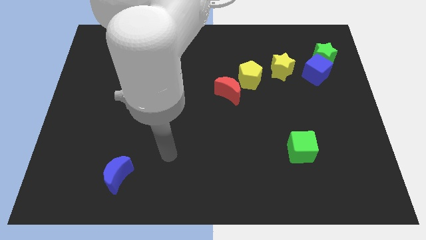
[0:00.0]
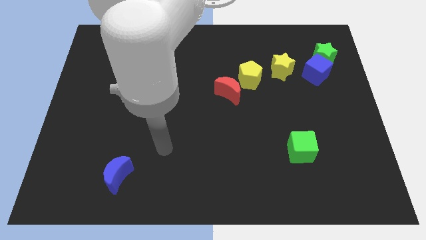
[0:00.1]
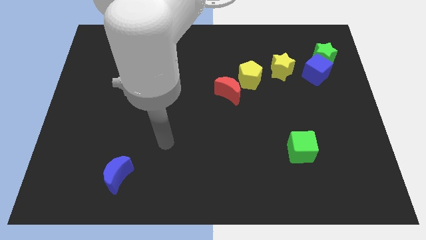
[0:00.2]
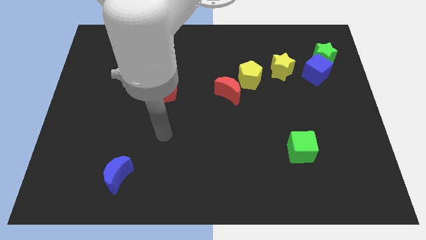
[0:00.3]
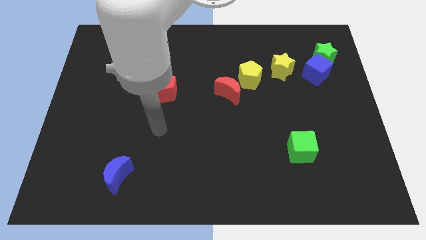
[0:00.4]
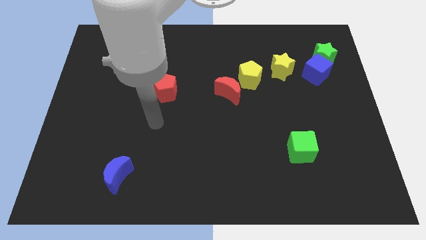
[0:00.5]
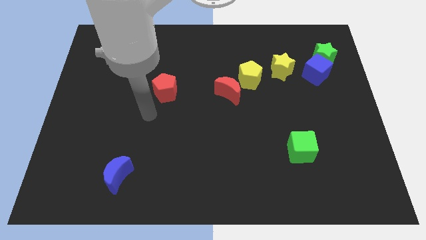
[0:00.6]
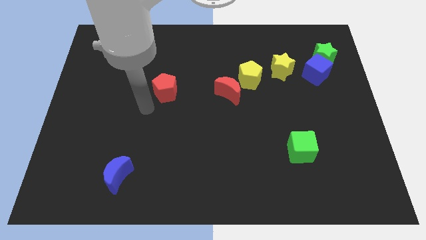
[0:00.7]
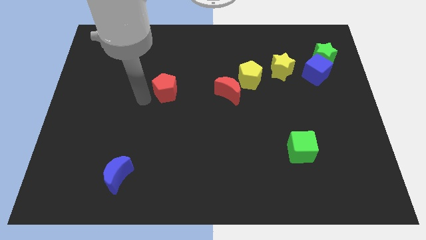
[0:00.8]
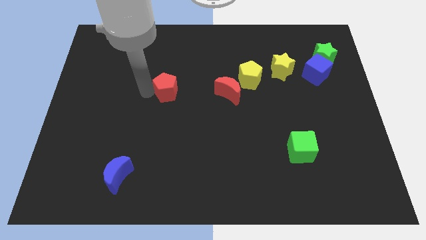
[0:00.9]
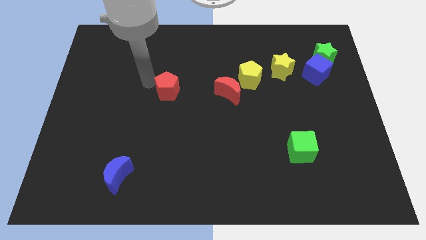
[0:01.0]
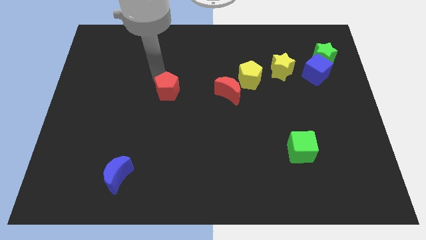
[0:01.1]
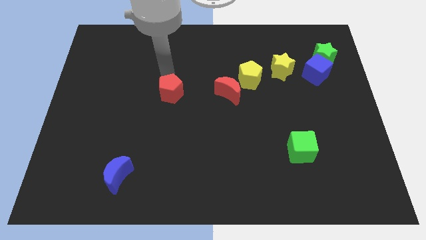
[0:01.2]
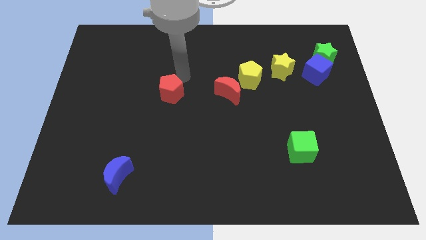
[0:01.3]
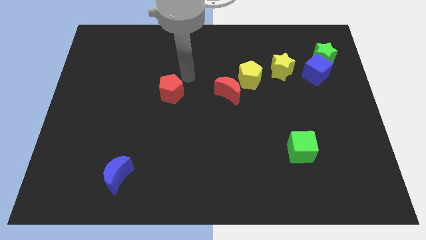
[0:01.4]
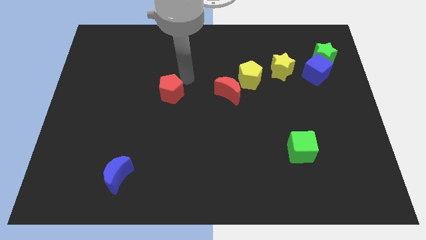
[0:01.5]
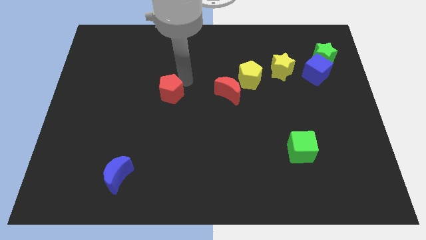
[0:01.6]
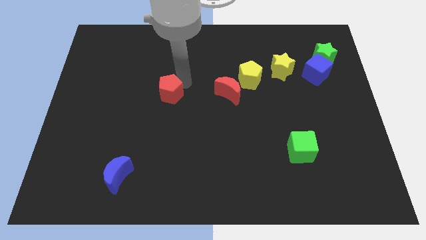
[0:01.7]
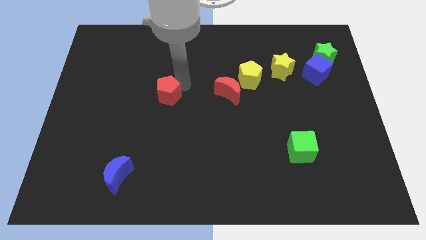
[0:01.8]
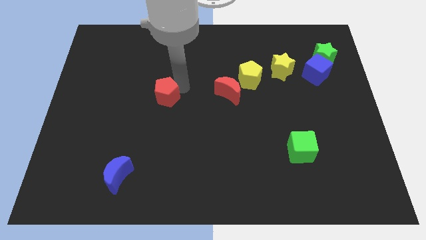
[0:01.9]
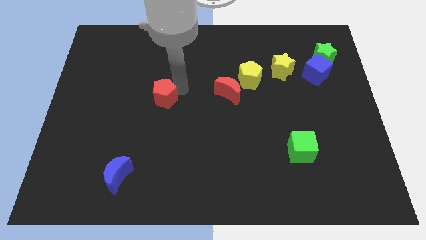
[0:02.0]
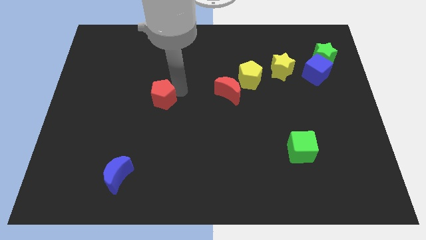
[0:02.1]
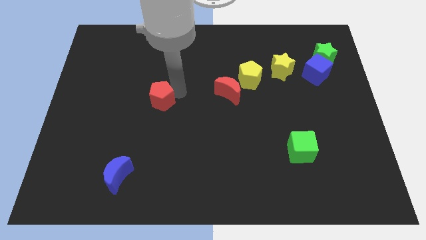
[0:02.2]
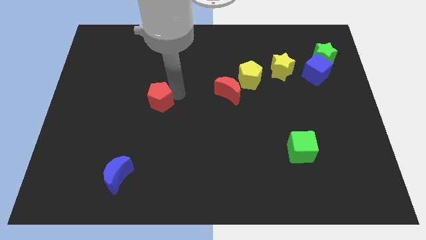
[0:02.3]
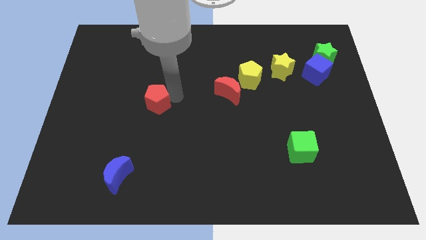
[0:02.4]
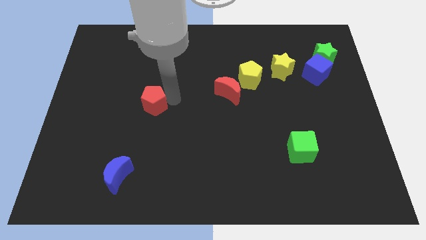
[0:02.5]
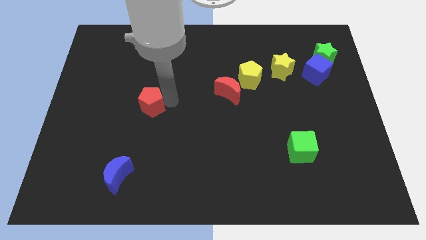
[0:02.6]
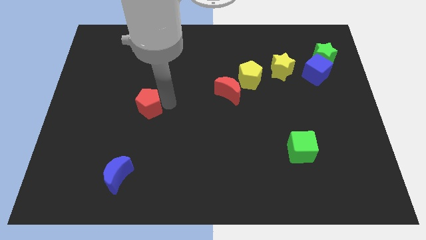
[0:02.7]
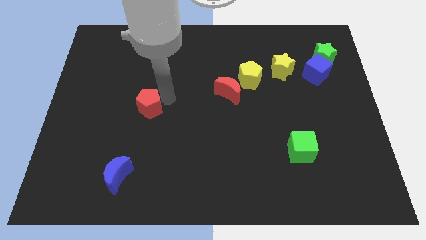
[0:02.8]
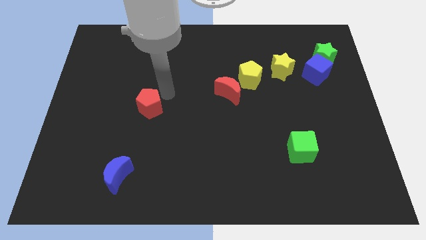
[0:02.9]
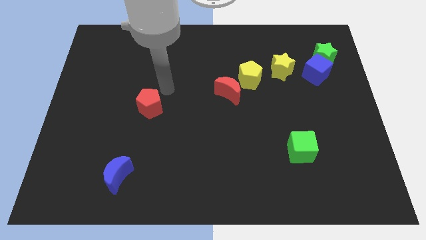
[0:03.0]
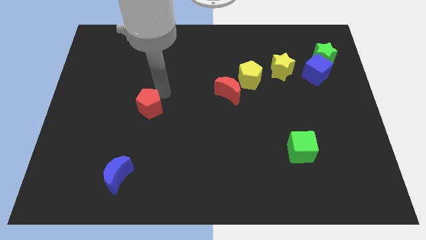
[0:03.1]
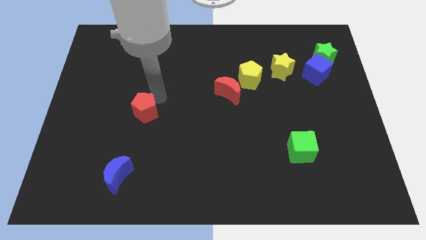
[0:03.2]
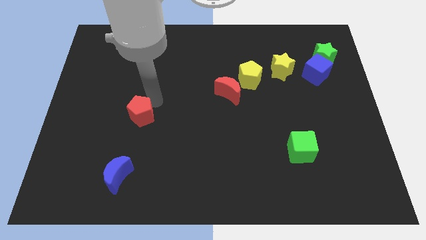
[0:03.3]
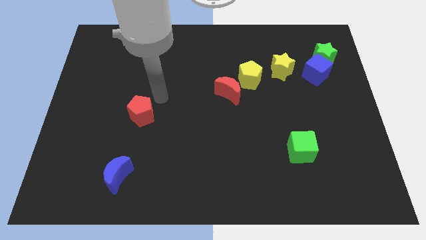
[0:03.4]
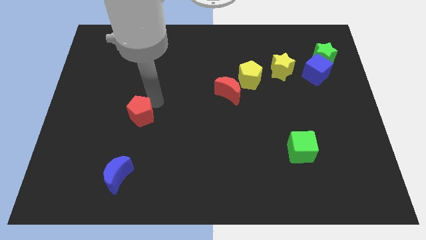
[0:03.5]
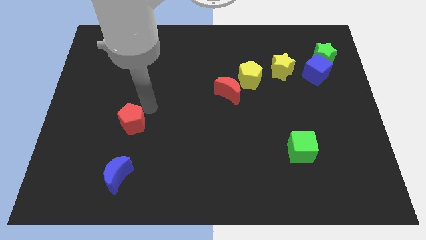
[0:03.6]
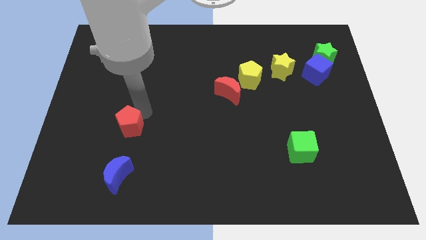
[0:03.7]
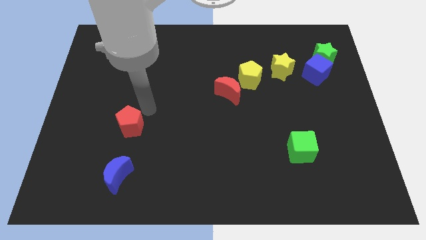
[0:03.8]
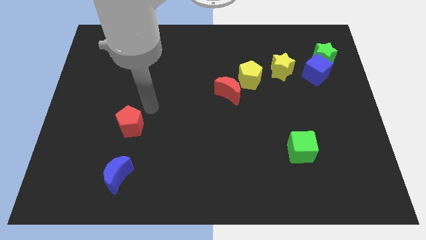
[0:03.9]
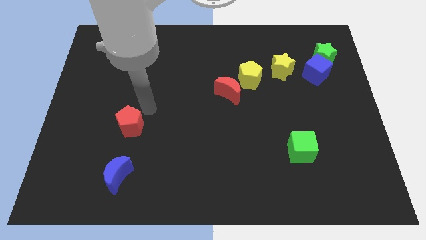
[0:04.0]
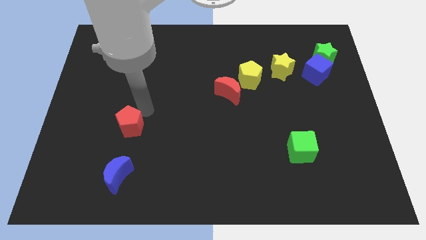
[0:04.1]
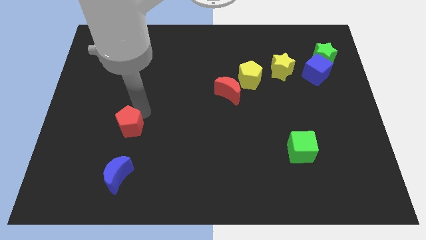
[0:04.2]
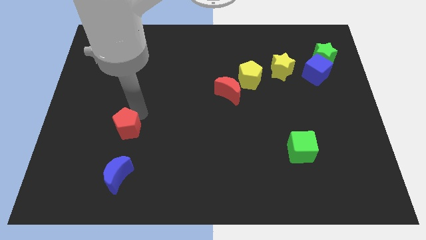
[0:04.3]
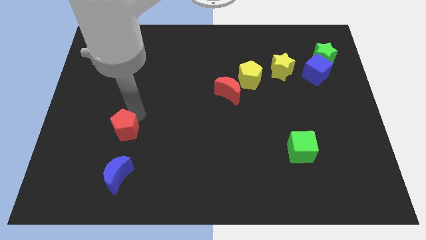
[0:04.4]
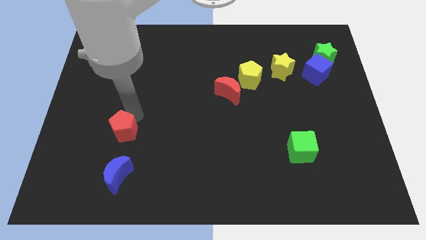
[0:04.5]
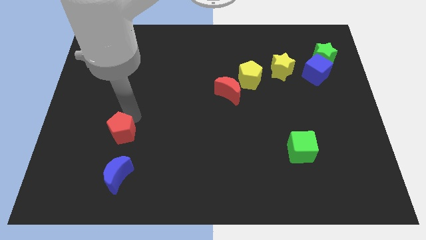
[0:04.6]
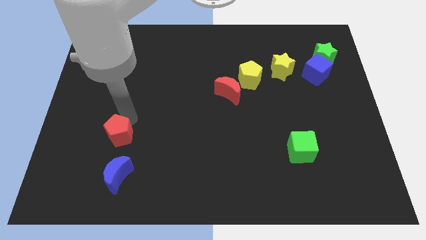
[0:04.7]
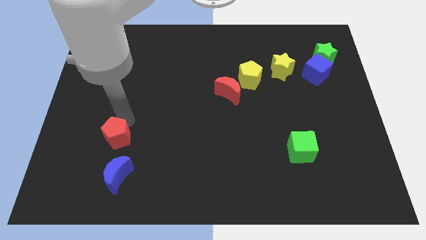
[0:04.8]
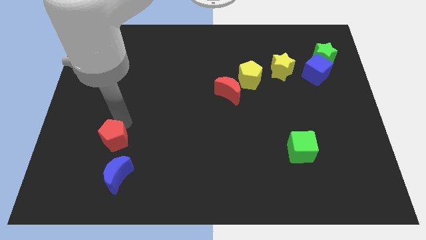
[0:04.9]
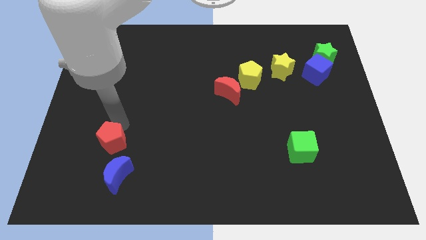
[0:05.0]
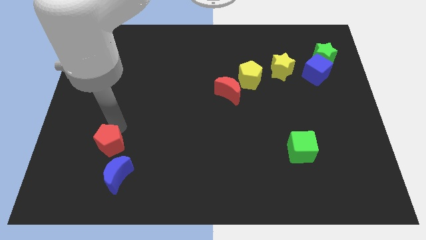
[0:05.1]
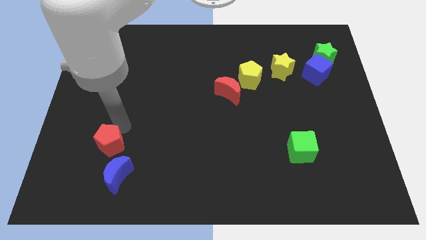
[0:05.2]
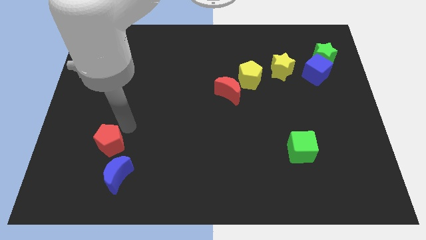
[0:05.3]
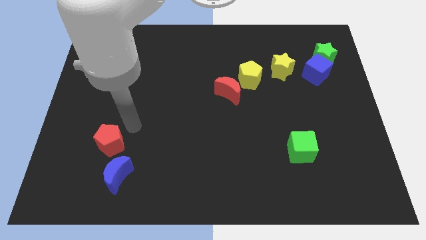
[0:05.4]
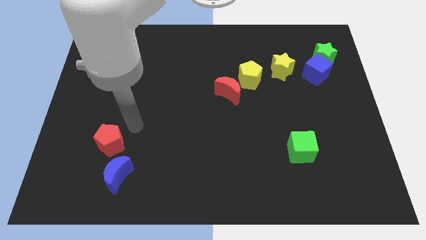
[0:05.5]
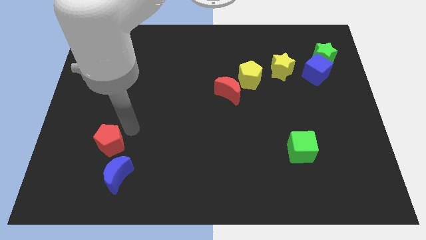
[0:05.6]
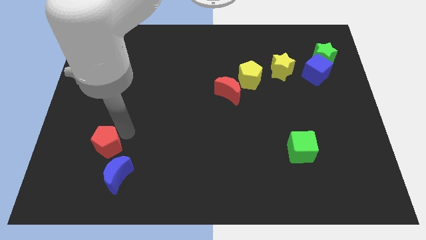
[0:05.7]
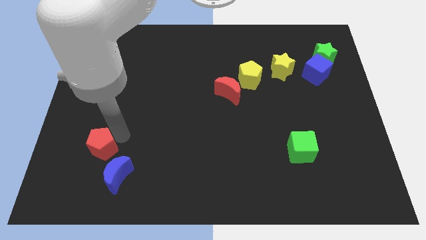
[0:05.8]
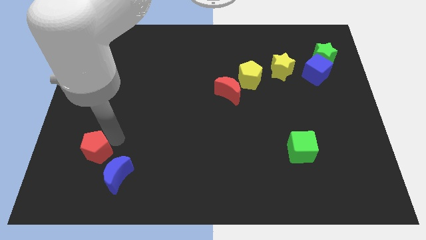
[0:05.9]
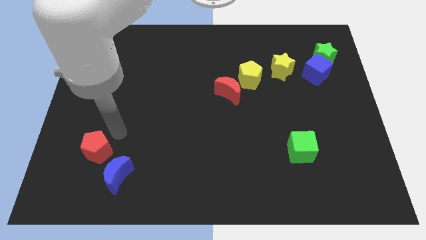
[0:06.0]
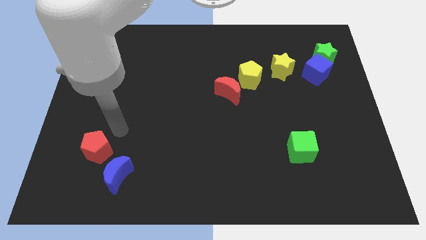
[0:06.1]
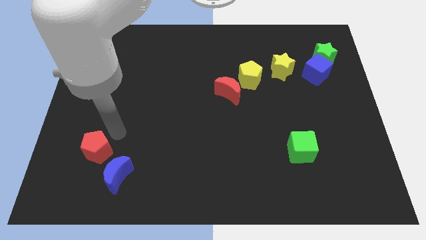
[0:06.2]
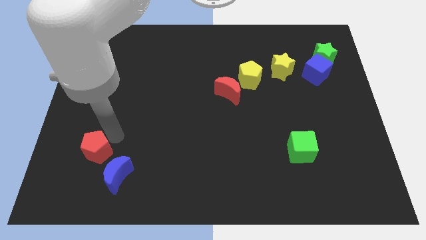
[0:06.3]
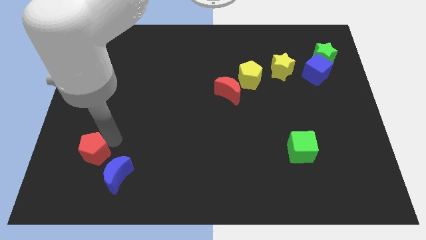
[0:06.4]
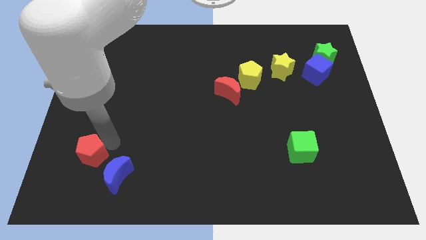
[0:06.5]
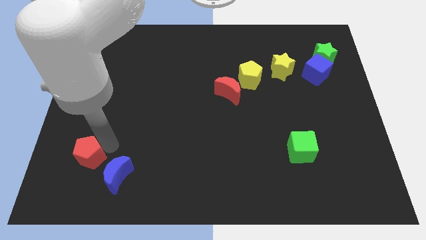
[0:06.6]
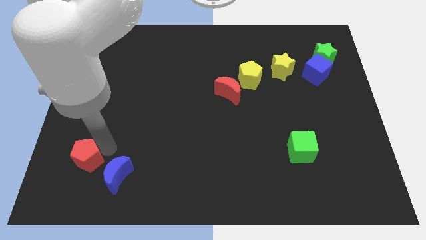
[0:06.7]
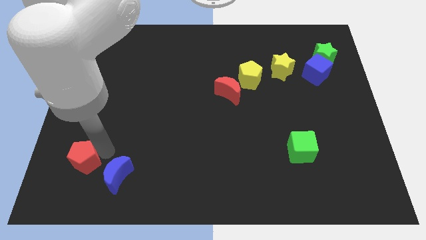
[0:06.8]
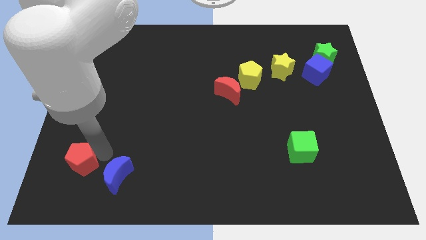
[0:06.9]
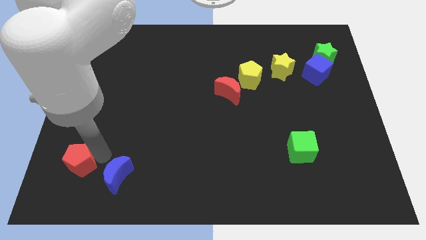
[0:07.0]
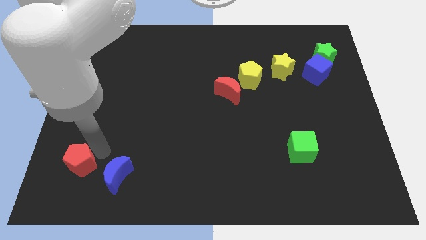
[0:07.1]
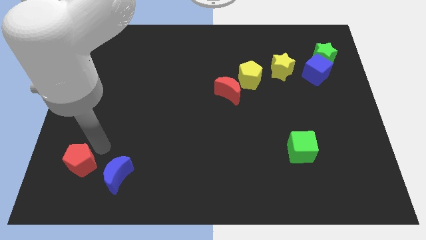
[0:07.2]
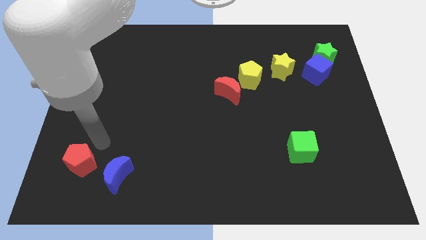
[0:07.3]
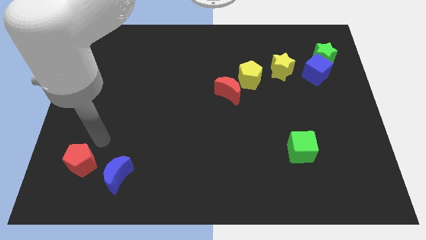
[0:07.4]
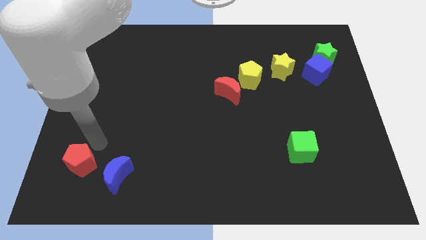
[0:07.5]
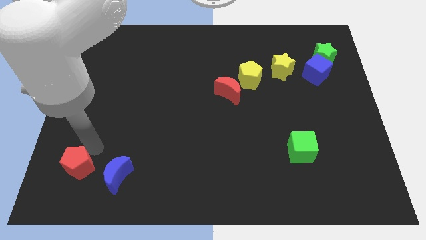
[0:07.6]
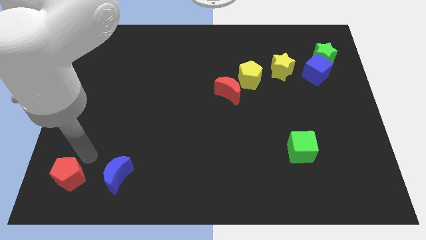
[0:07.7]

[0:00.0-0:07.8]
push the red pentagon to the bottom left corner
